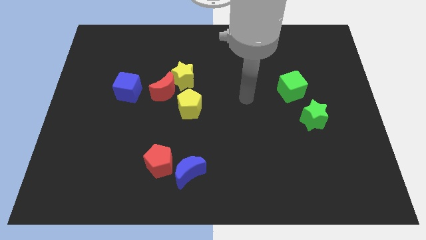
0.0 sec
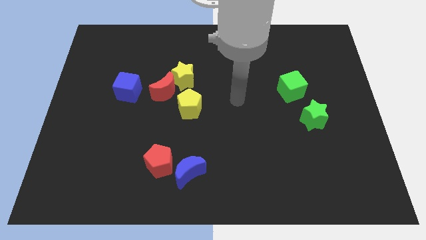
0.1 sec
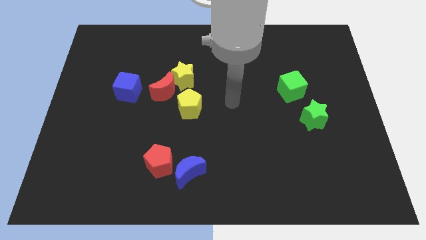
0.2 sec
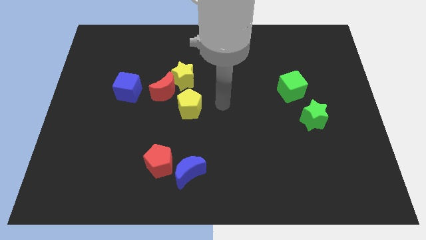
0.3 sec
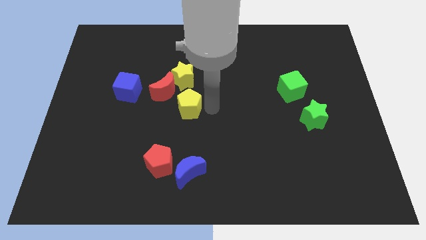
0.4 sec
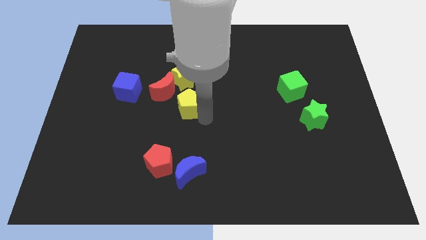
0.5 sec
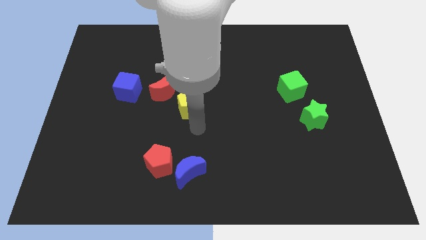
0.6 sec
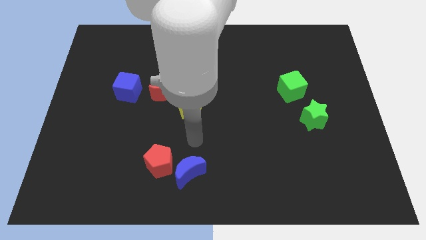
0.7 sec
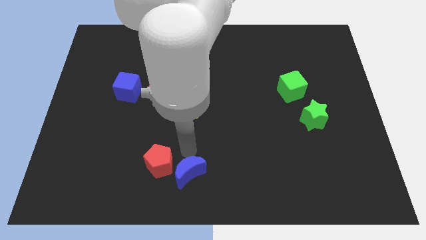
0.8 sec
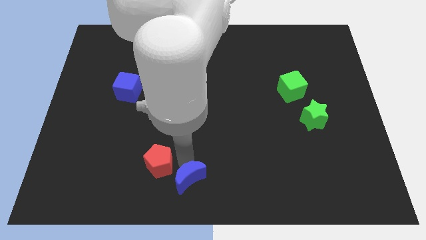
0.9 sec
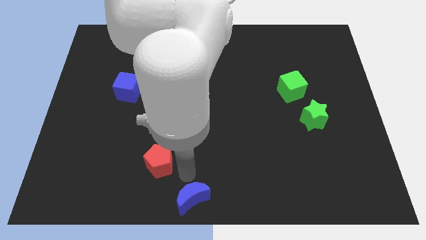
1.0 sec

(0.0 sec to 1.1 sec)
move the red pentagon away from the blue moon

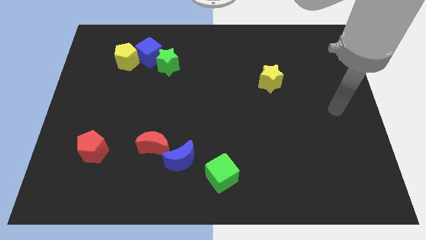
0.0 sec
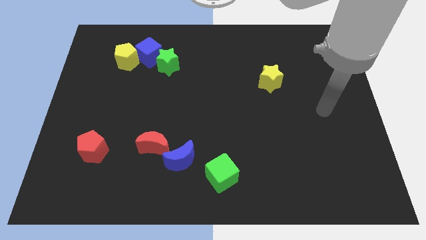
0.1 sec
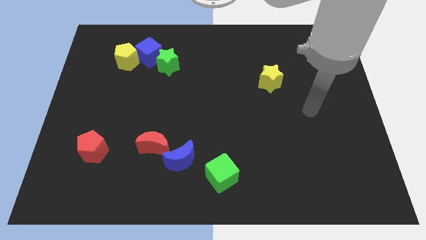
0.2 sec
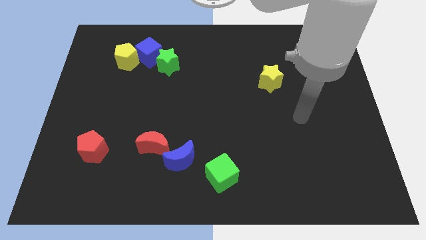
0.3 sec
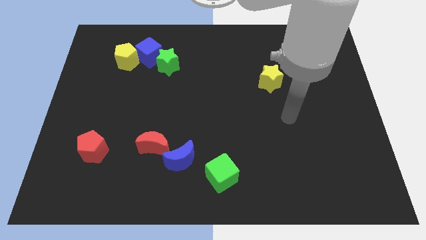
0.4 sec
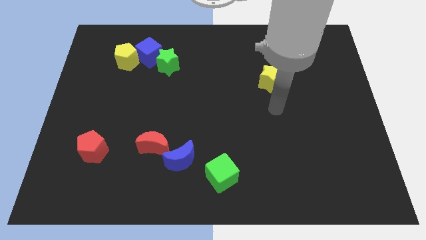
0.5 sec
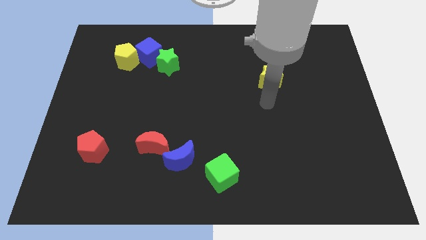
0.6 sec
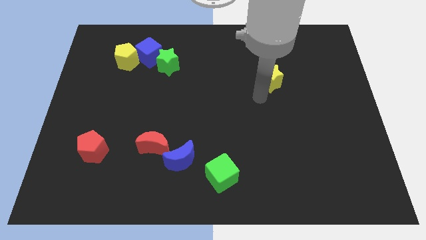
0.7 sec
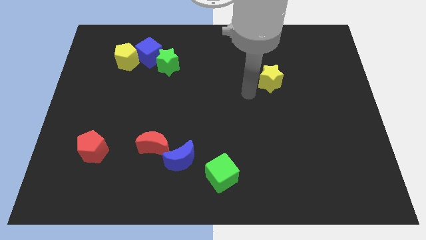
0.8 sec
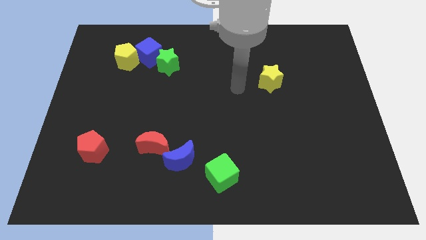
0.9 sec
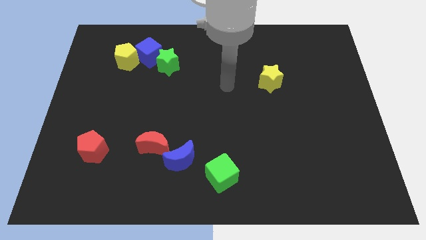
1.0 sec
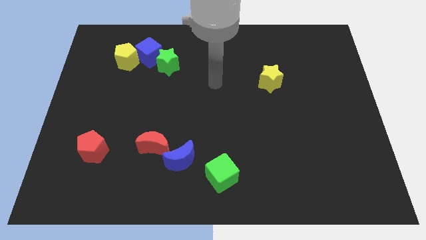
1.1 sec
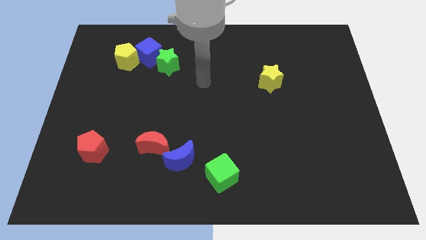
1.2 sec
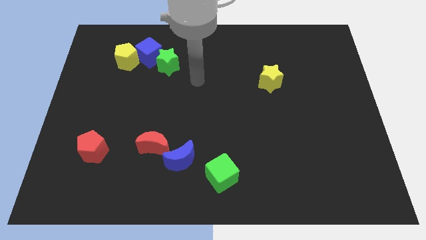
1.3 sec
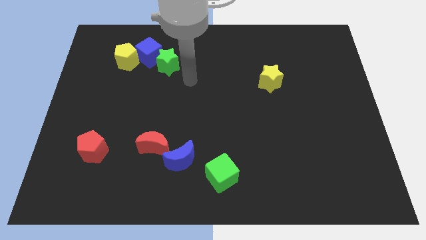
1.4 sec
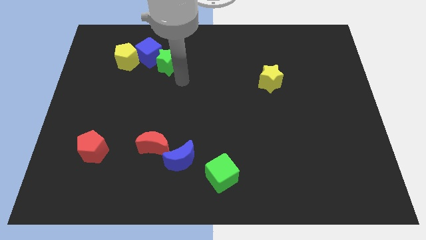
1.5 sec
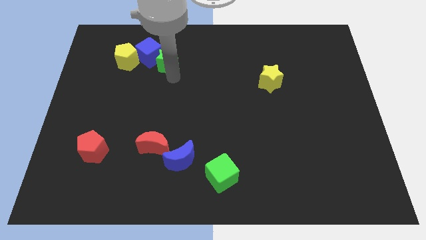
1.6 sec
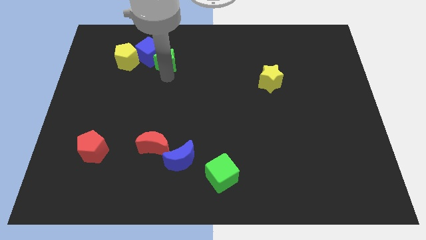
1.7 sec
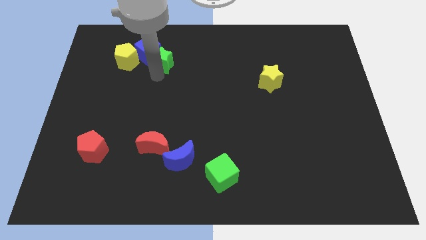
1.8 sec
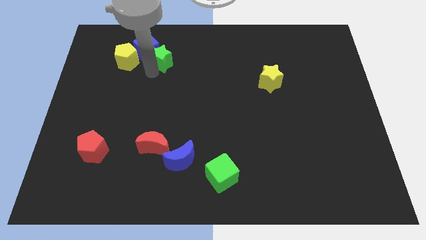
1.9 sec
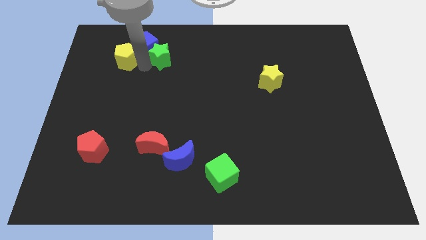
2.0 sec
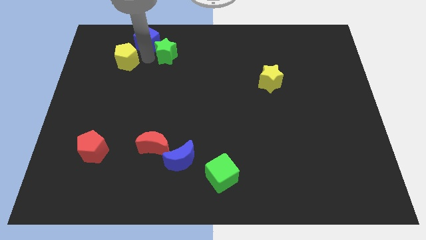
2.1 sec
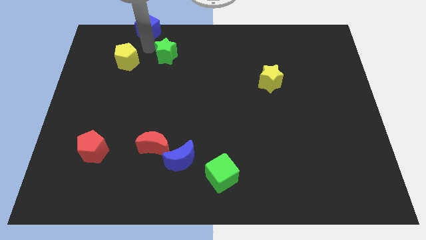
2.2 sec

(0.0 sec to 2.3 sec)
separate the green star from the blue cube

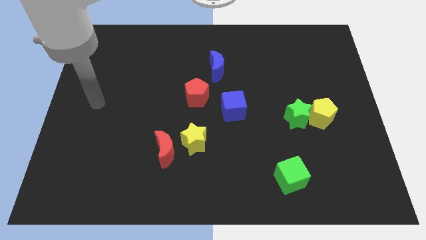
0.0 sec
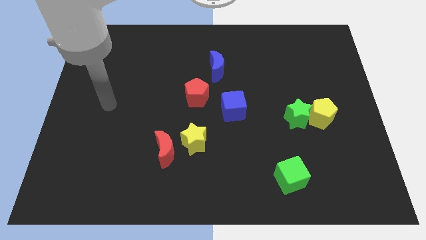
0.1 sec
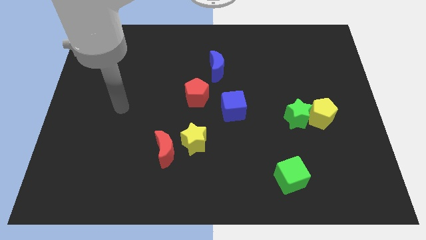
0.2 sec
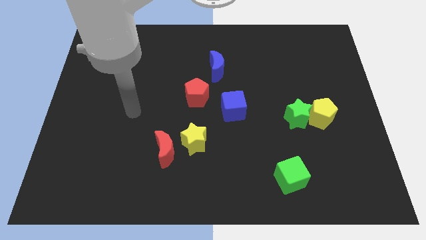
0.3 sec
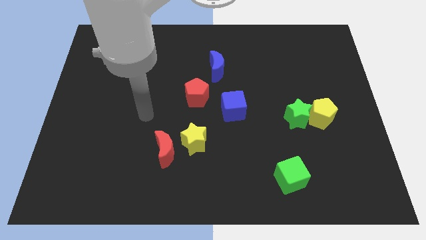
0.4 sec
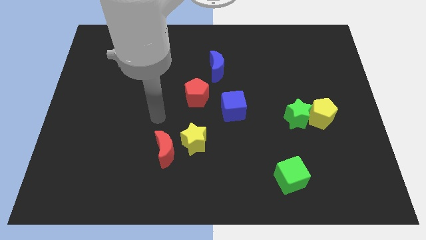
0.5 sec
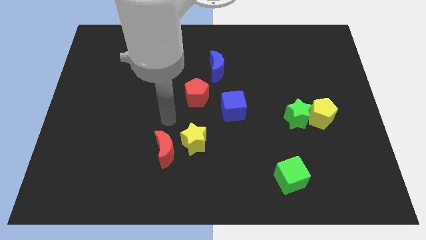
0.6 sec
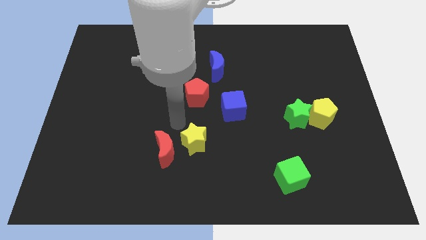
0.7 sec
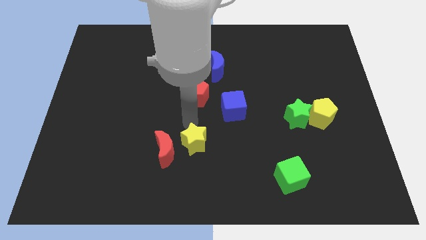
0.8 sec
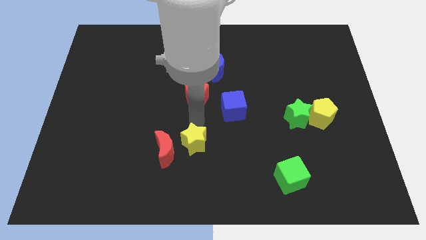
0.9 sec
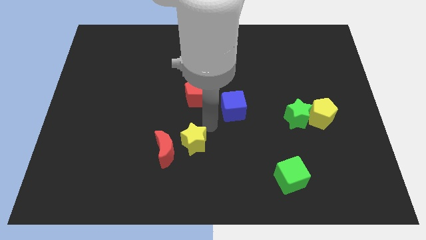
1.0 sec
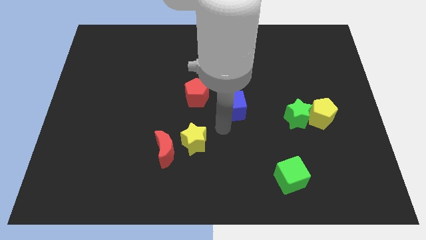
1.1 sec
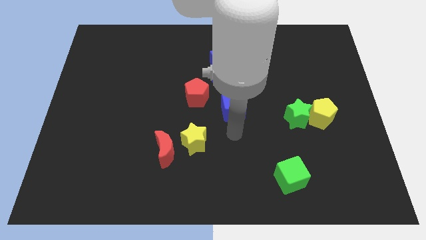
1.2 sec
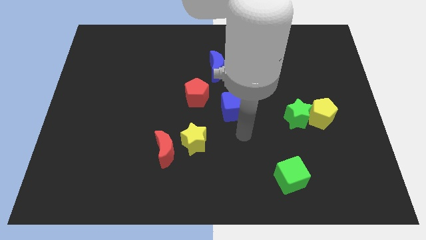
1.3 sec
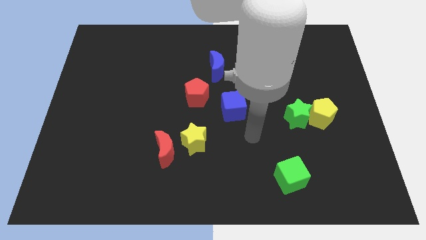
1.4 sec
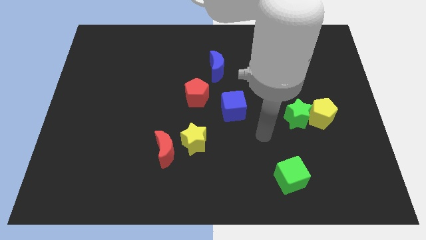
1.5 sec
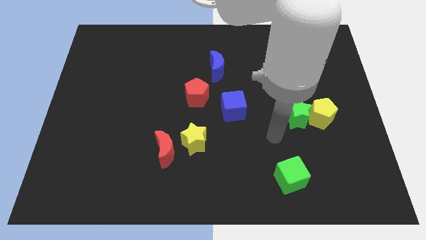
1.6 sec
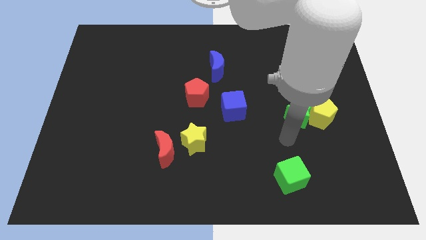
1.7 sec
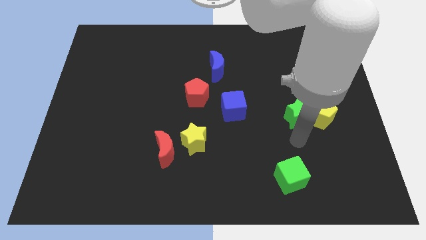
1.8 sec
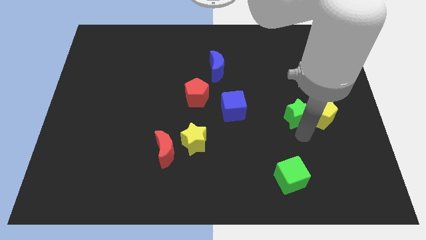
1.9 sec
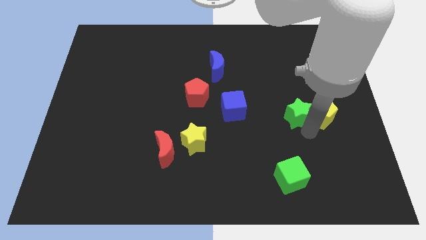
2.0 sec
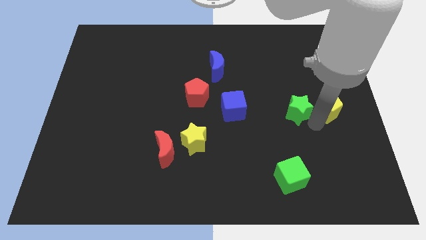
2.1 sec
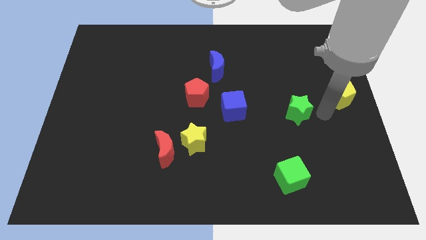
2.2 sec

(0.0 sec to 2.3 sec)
move the green star away from the yellow pentagon

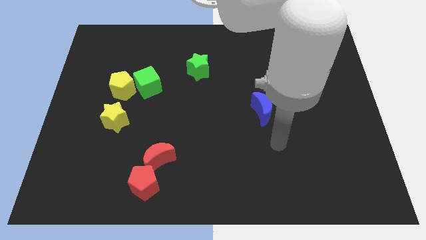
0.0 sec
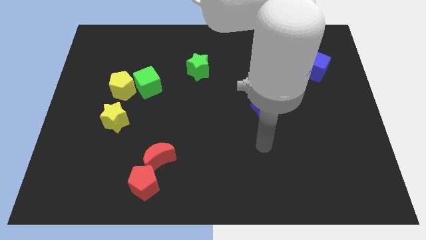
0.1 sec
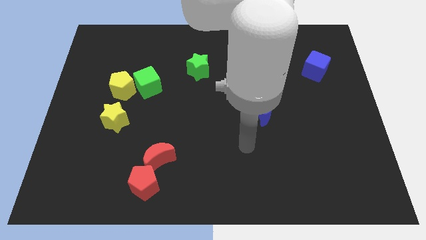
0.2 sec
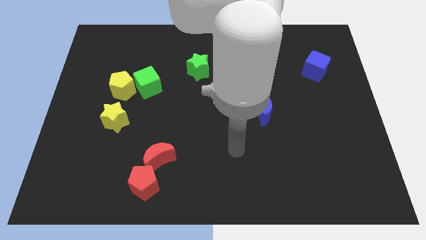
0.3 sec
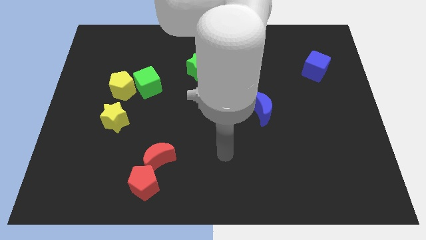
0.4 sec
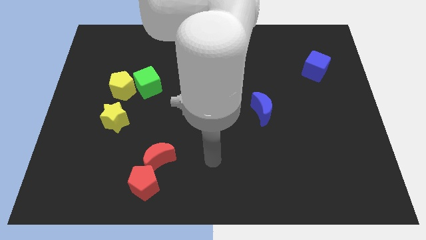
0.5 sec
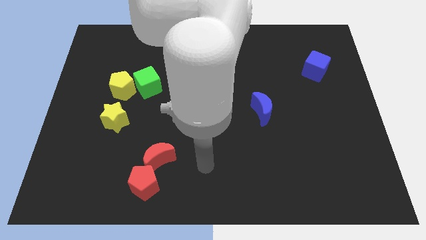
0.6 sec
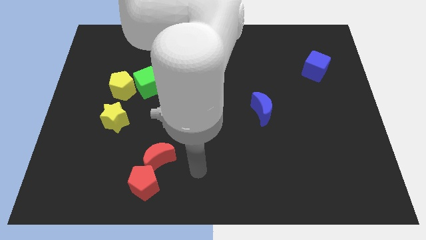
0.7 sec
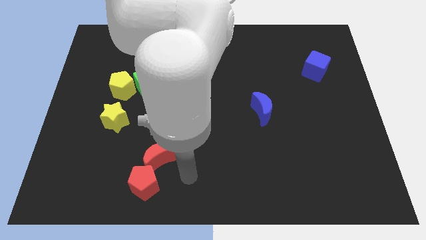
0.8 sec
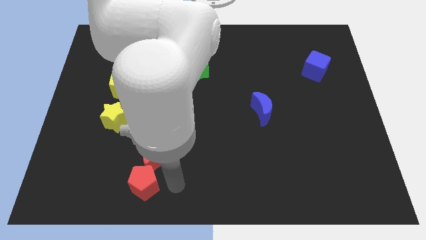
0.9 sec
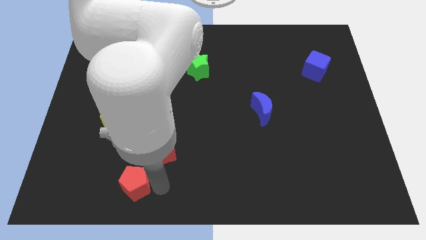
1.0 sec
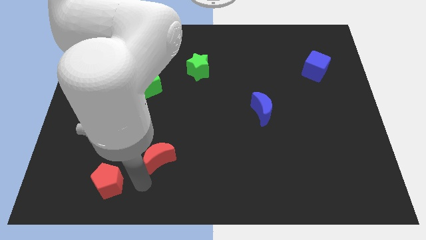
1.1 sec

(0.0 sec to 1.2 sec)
move the red moon away from the red pentagon

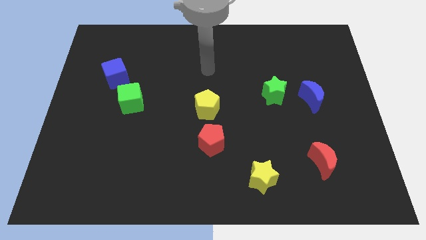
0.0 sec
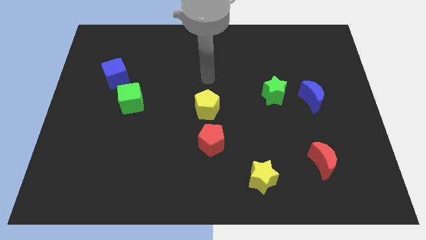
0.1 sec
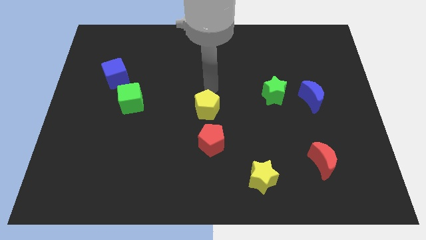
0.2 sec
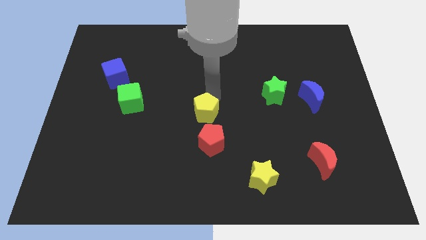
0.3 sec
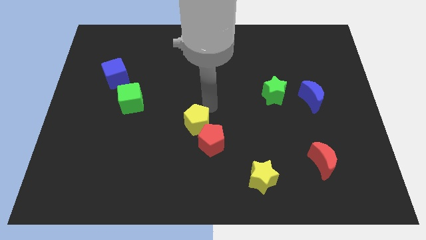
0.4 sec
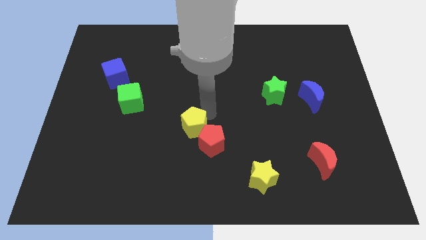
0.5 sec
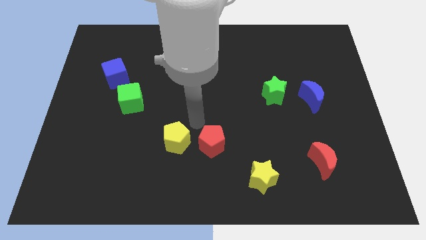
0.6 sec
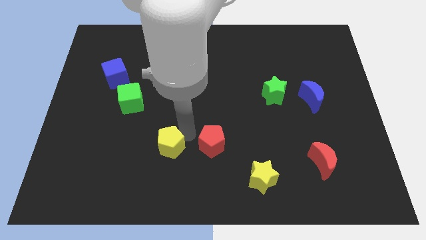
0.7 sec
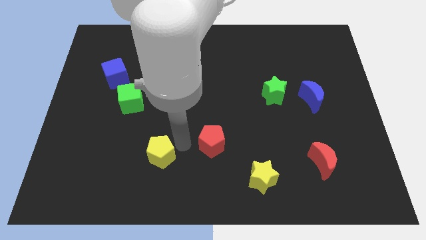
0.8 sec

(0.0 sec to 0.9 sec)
move the red pentagon away from the yellow pentagon

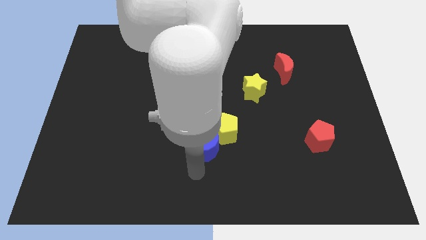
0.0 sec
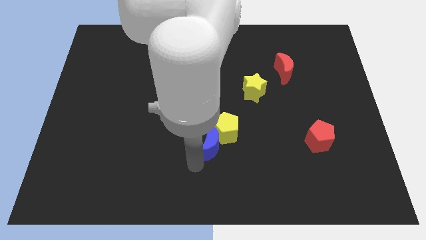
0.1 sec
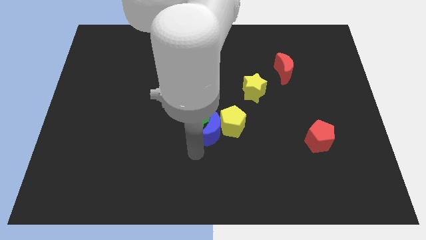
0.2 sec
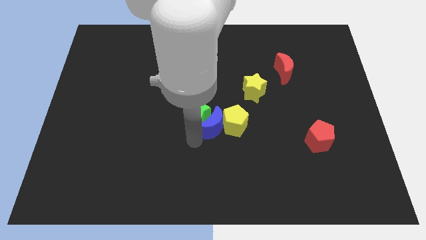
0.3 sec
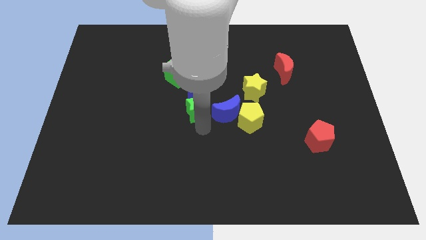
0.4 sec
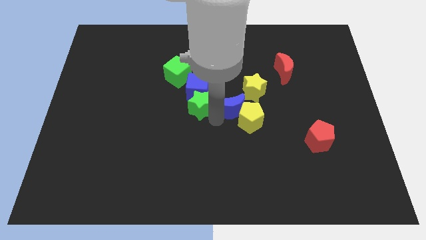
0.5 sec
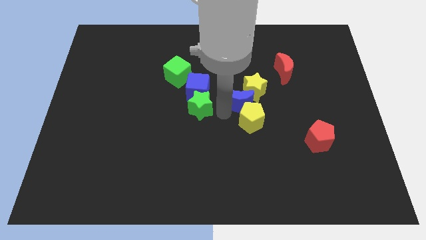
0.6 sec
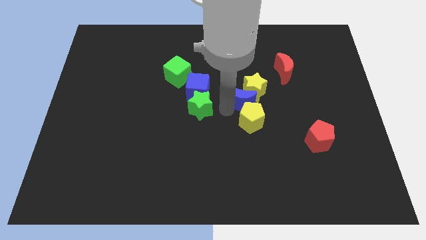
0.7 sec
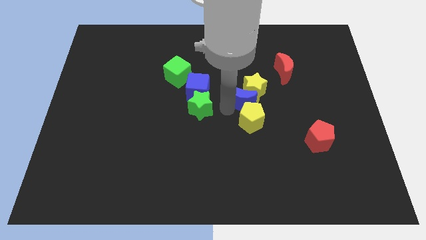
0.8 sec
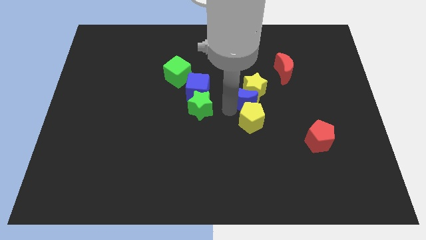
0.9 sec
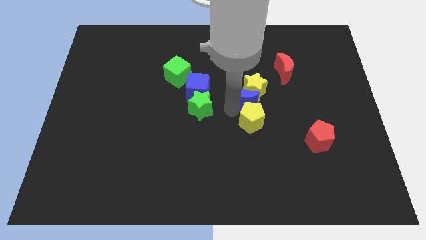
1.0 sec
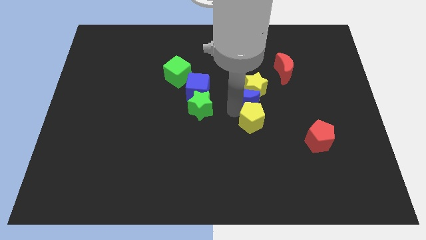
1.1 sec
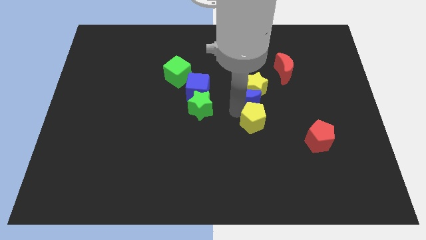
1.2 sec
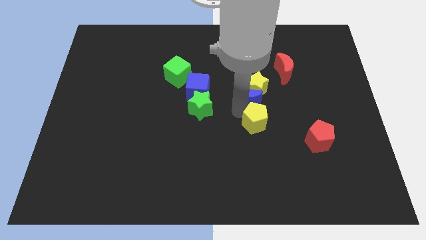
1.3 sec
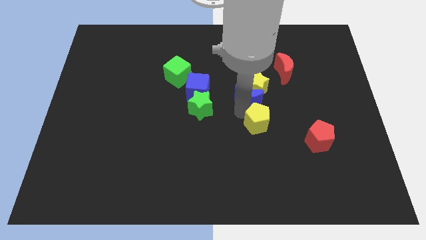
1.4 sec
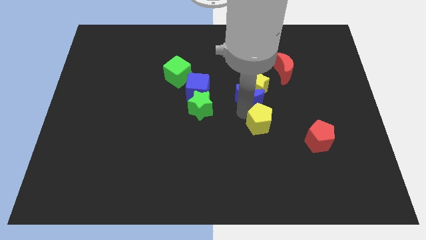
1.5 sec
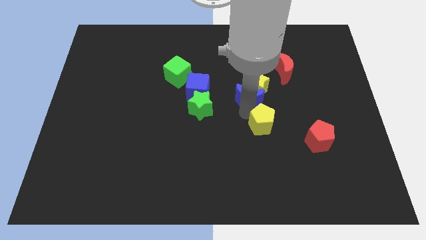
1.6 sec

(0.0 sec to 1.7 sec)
separate the yellow pentagon from the blue moon and green star
